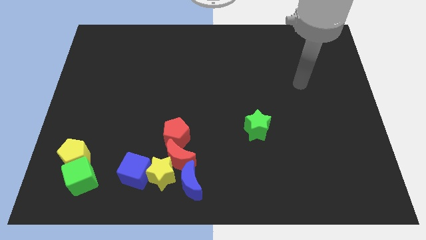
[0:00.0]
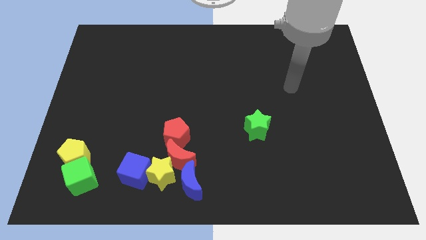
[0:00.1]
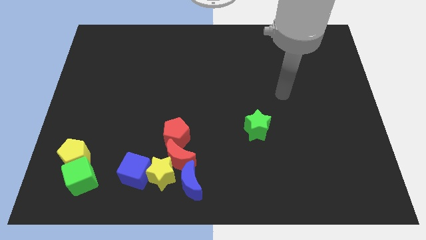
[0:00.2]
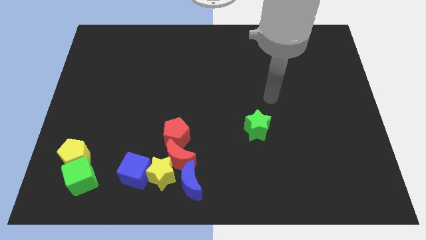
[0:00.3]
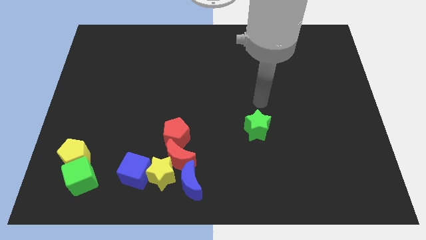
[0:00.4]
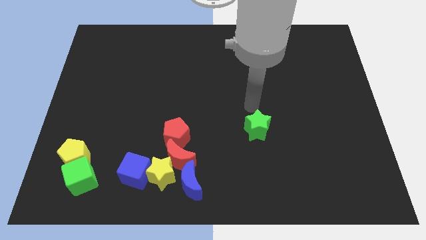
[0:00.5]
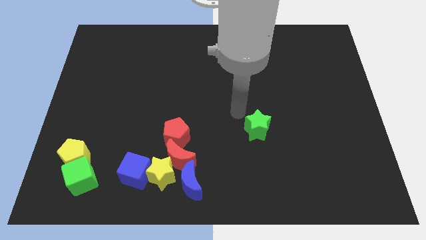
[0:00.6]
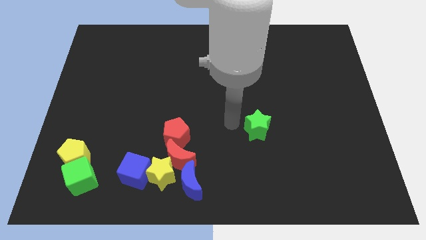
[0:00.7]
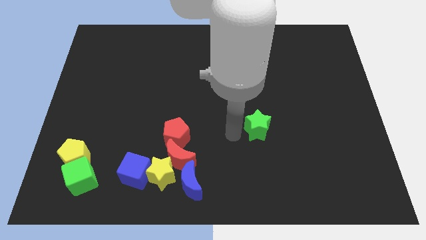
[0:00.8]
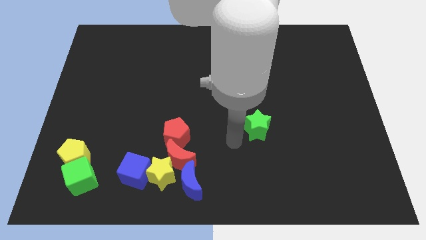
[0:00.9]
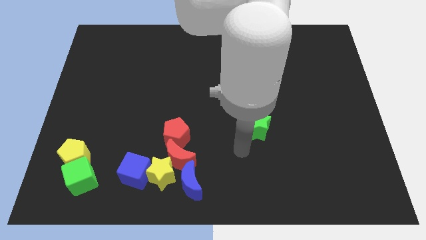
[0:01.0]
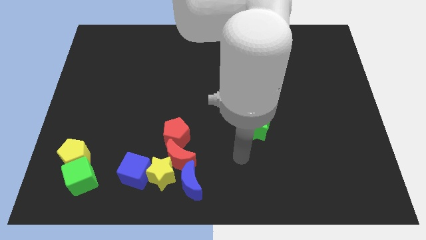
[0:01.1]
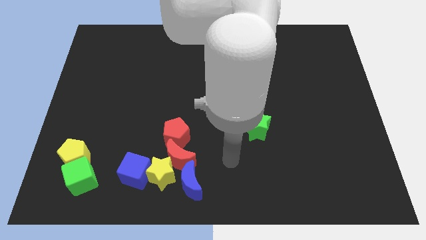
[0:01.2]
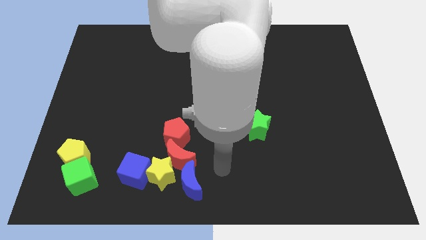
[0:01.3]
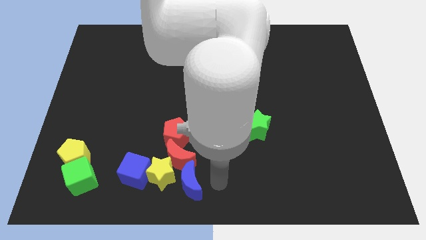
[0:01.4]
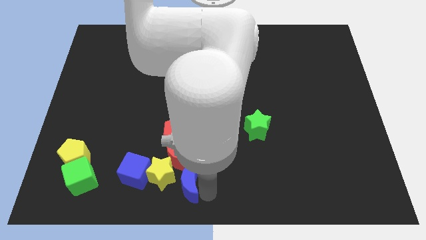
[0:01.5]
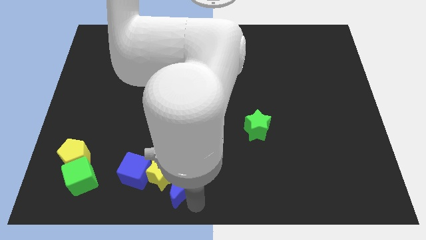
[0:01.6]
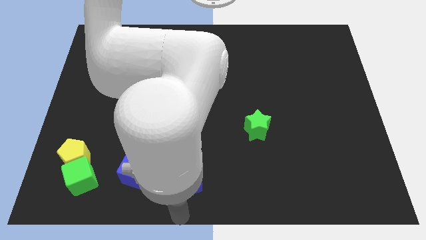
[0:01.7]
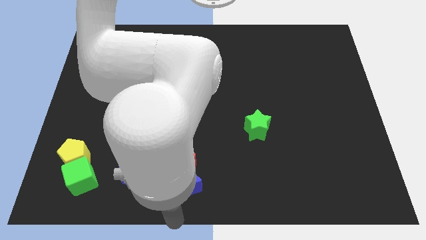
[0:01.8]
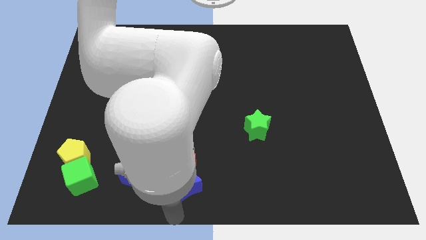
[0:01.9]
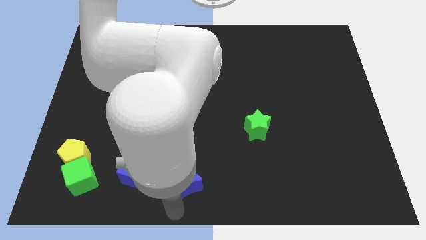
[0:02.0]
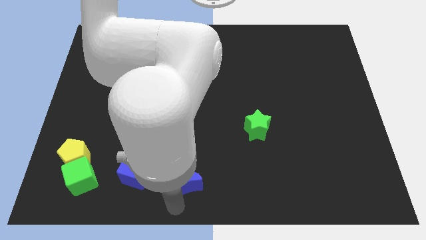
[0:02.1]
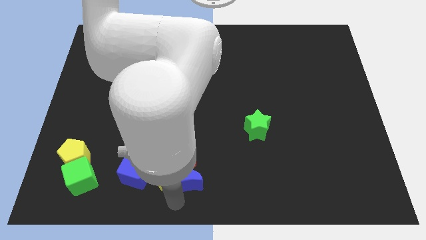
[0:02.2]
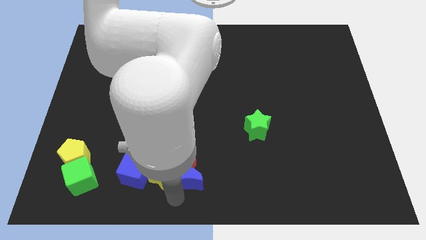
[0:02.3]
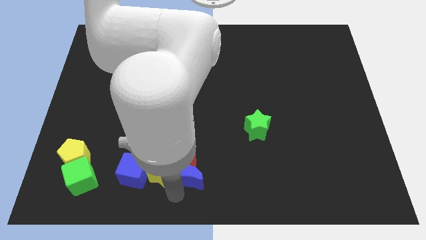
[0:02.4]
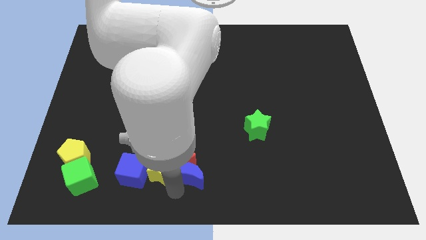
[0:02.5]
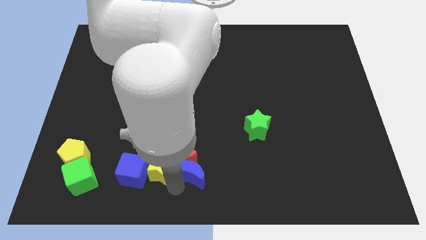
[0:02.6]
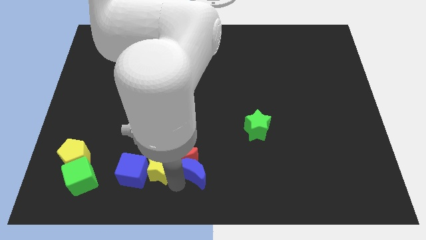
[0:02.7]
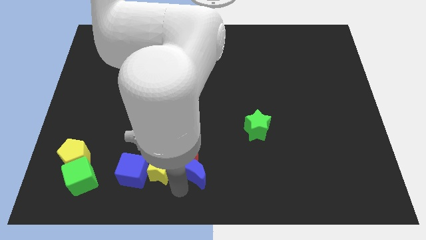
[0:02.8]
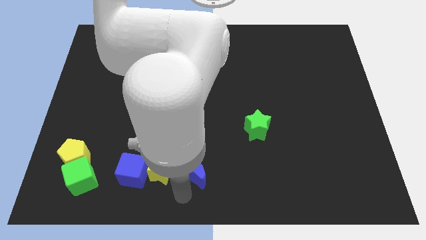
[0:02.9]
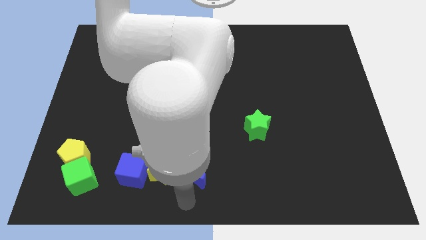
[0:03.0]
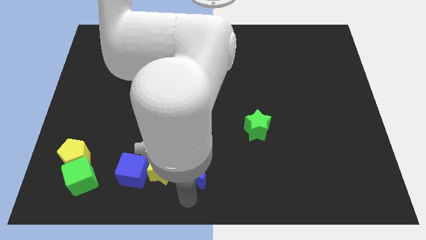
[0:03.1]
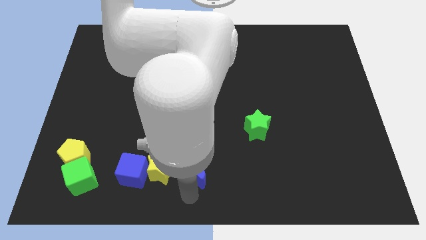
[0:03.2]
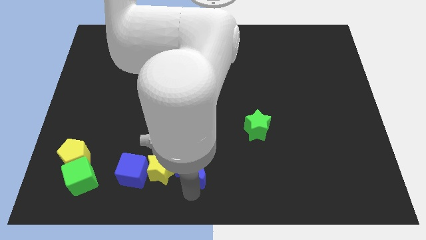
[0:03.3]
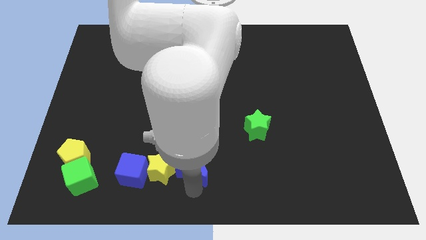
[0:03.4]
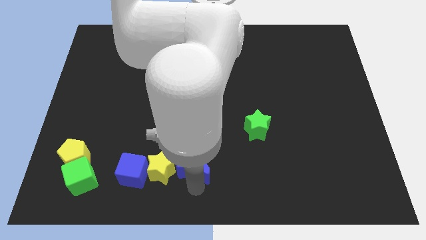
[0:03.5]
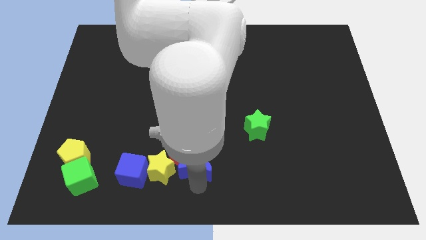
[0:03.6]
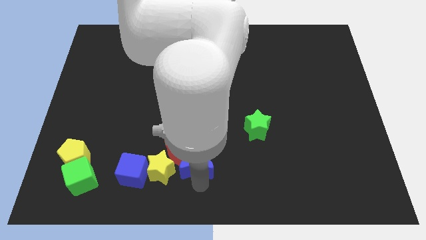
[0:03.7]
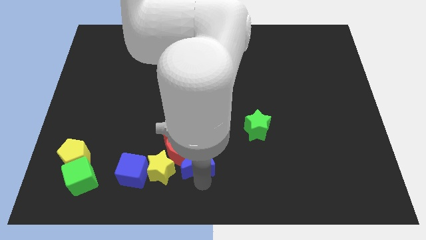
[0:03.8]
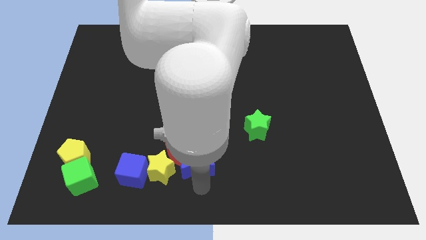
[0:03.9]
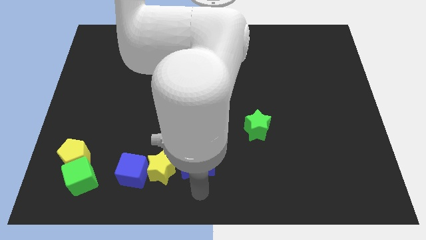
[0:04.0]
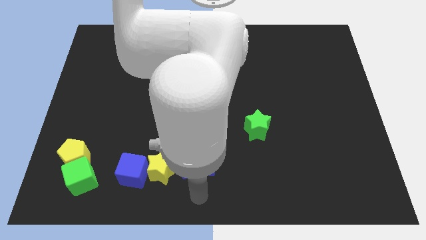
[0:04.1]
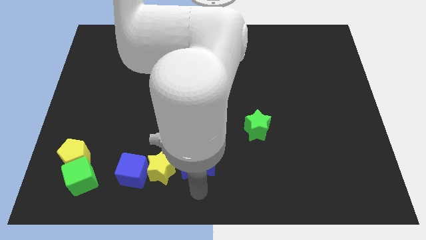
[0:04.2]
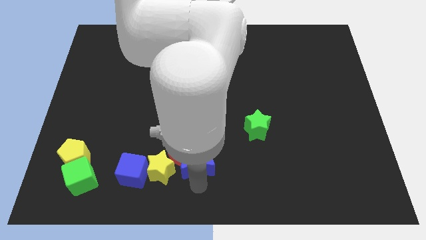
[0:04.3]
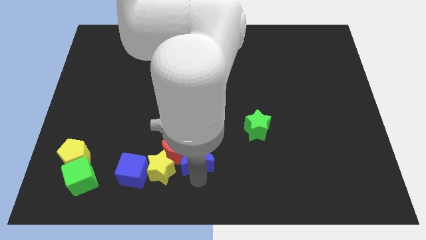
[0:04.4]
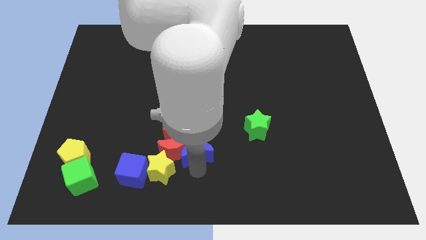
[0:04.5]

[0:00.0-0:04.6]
move the blue moon somewhat upwards

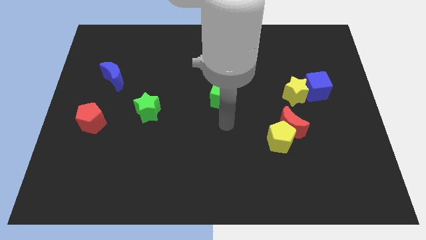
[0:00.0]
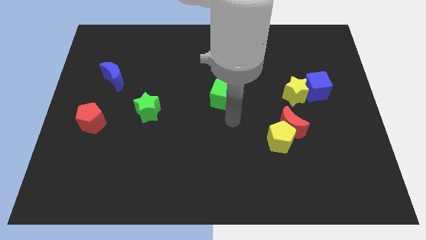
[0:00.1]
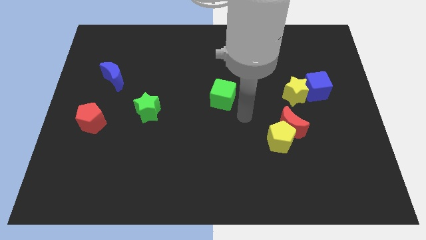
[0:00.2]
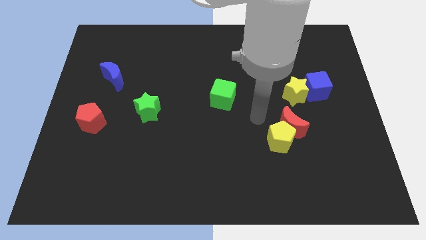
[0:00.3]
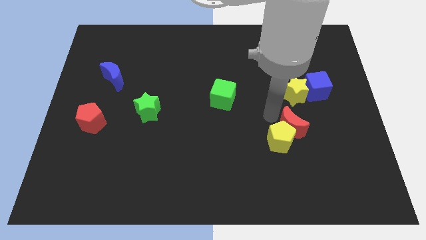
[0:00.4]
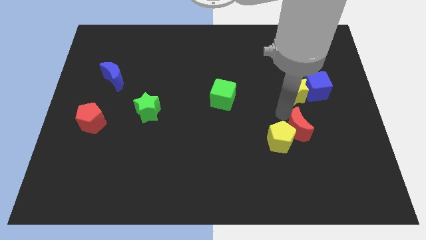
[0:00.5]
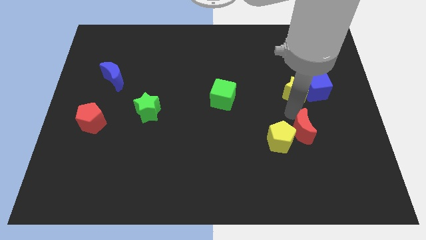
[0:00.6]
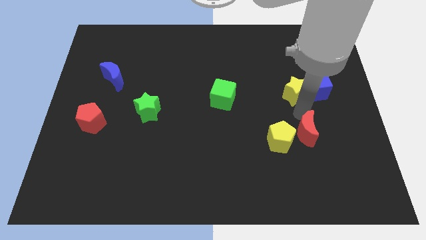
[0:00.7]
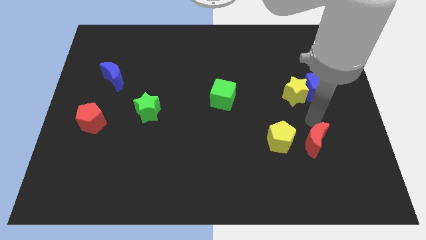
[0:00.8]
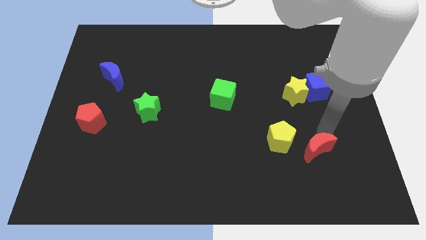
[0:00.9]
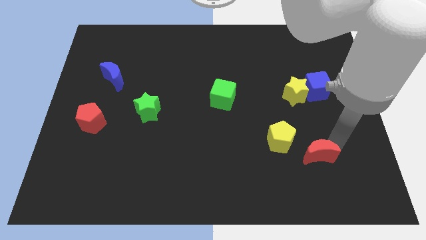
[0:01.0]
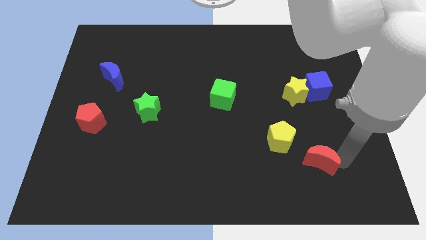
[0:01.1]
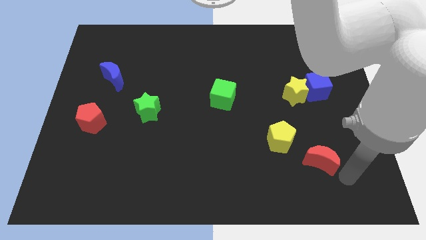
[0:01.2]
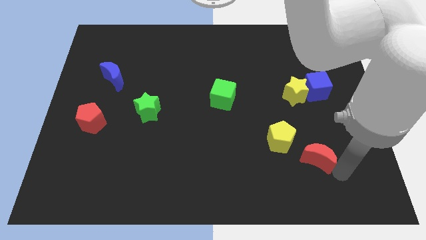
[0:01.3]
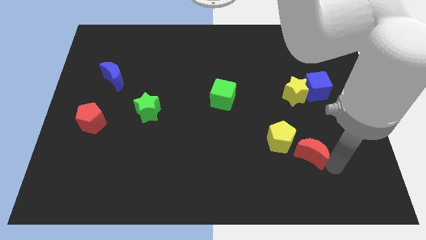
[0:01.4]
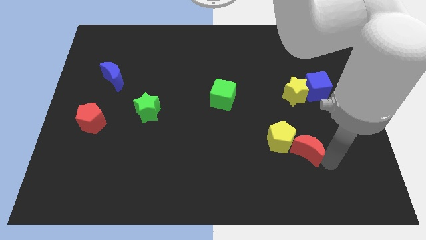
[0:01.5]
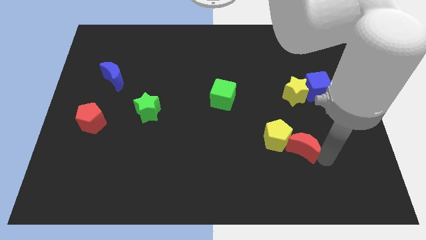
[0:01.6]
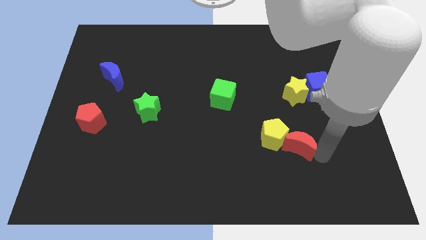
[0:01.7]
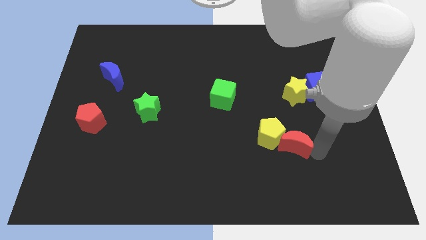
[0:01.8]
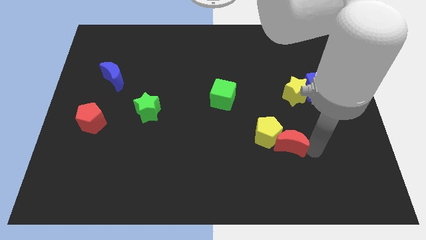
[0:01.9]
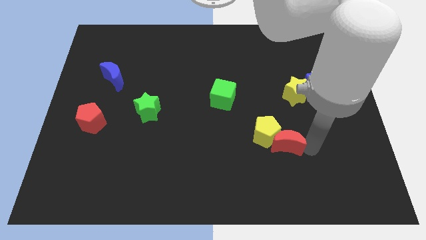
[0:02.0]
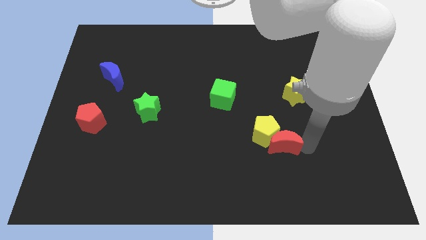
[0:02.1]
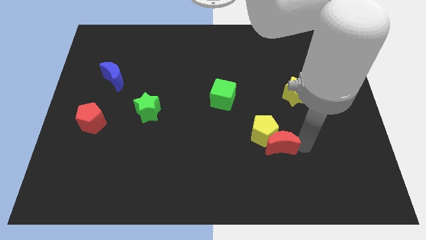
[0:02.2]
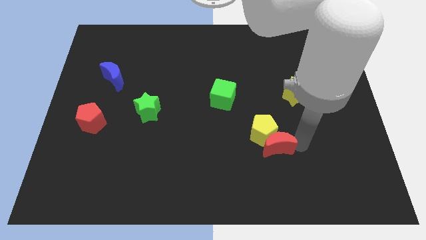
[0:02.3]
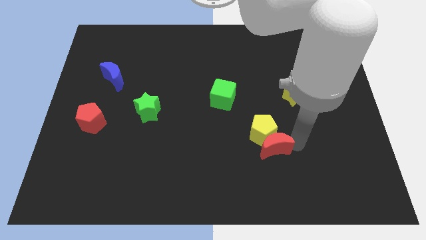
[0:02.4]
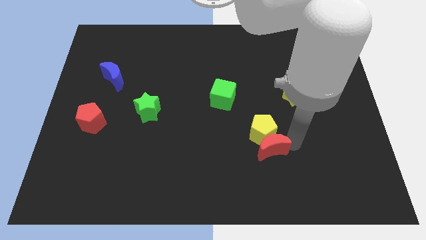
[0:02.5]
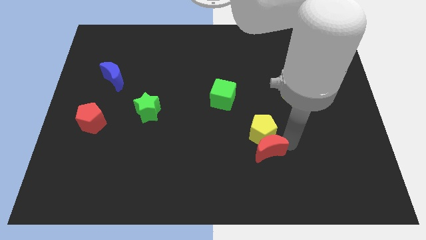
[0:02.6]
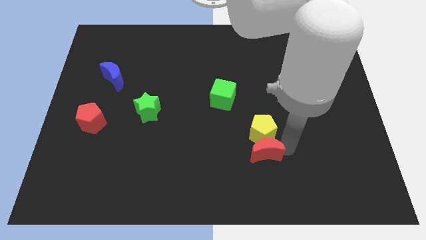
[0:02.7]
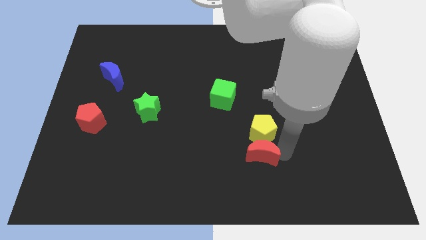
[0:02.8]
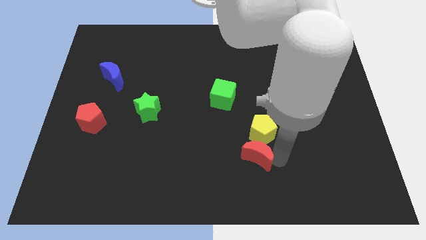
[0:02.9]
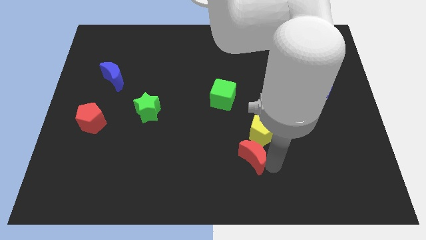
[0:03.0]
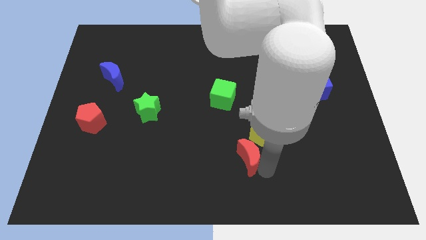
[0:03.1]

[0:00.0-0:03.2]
slide the red moon left slightly
